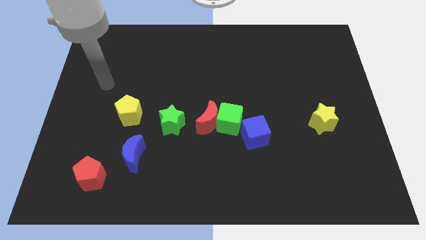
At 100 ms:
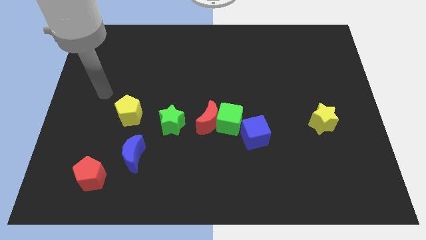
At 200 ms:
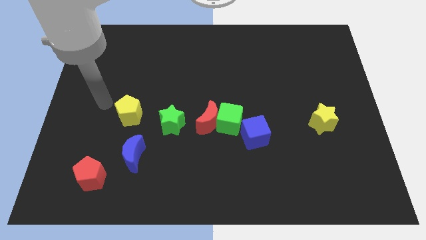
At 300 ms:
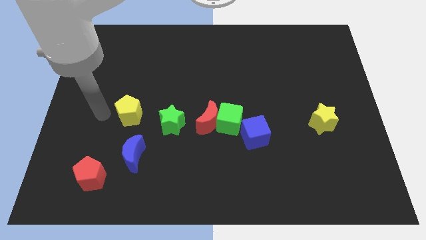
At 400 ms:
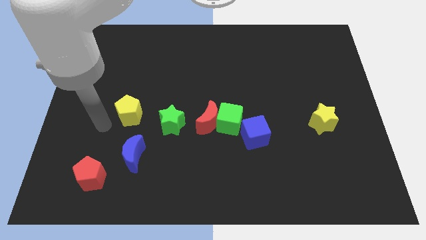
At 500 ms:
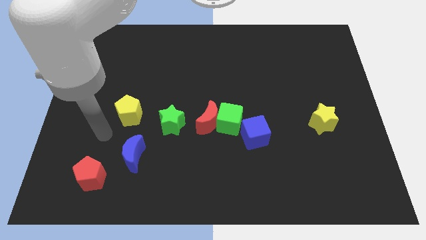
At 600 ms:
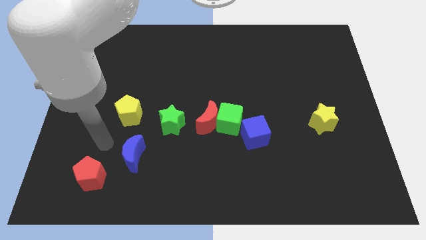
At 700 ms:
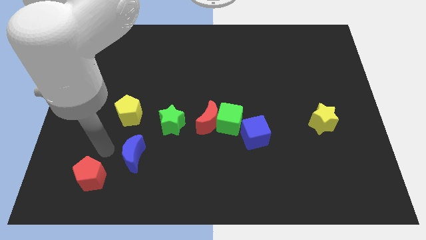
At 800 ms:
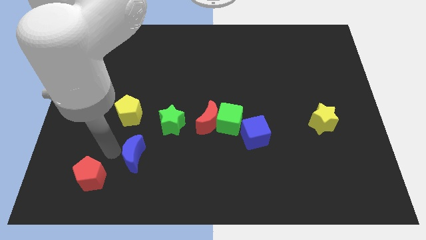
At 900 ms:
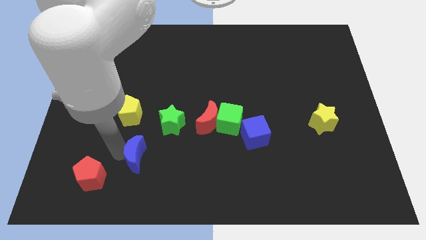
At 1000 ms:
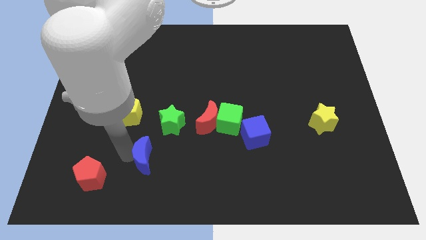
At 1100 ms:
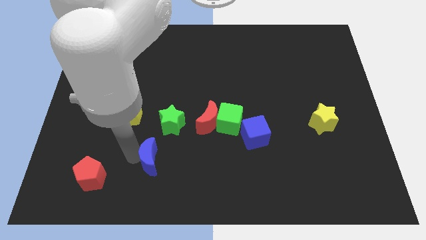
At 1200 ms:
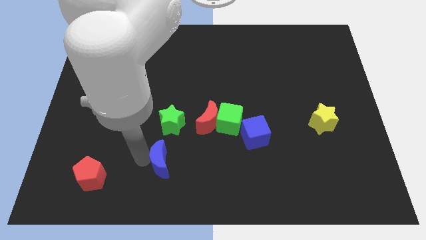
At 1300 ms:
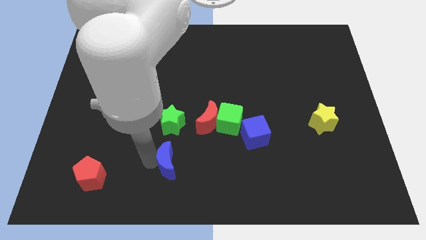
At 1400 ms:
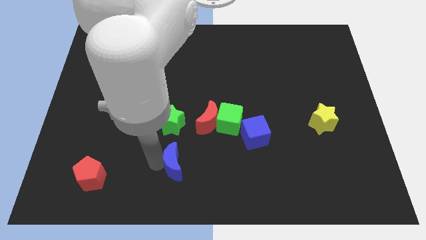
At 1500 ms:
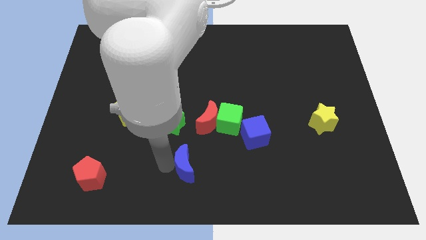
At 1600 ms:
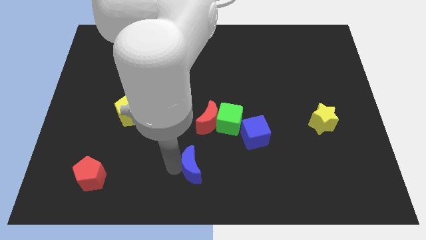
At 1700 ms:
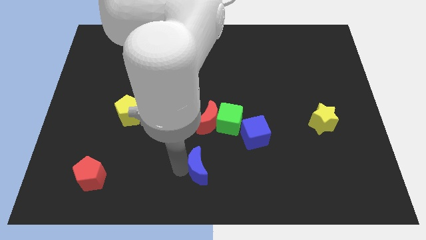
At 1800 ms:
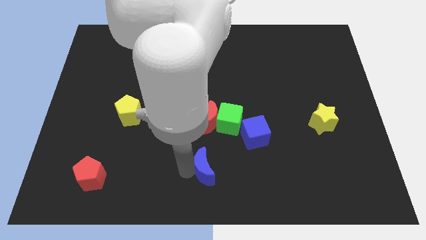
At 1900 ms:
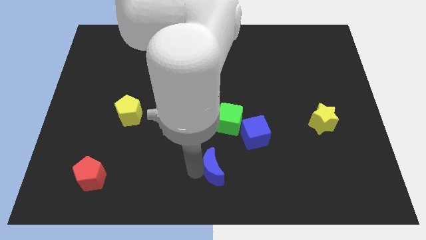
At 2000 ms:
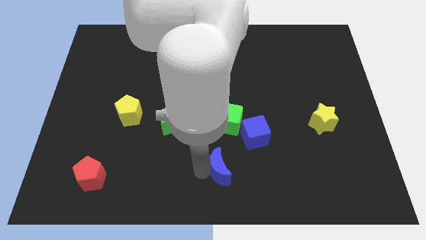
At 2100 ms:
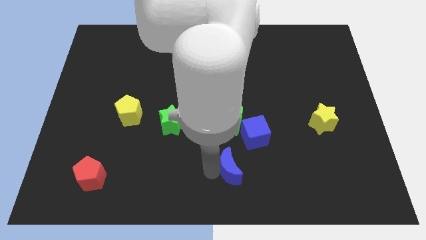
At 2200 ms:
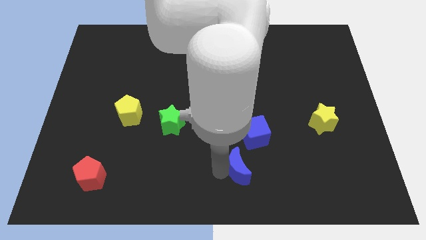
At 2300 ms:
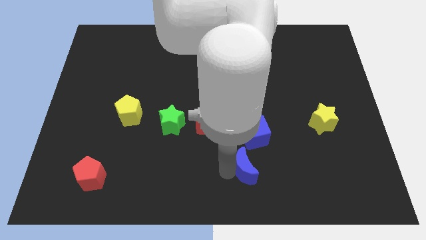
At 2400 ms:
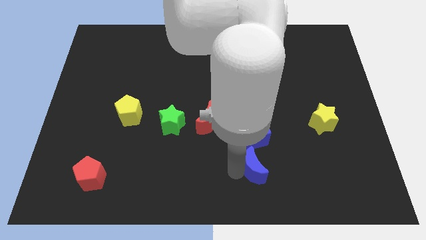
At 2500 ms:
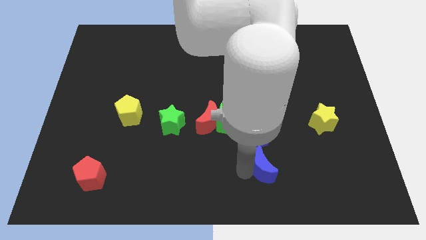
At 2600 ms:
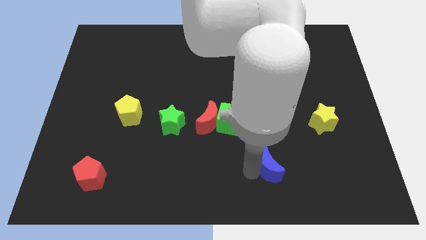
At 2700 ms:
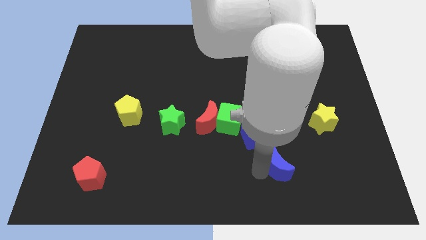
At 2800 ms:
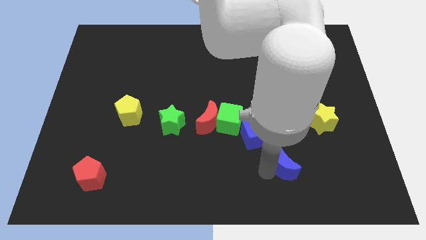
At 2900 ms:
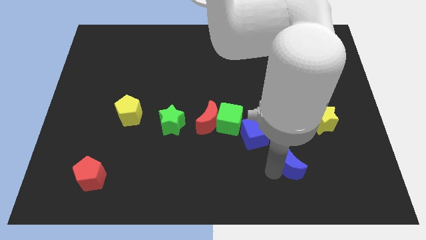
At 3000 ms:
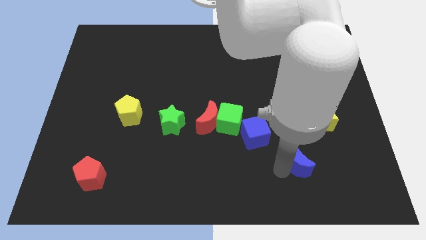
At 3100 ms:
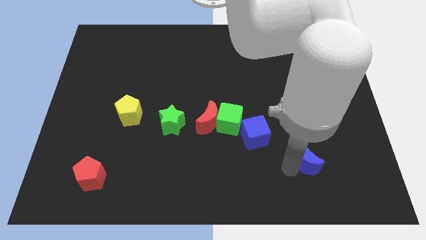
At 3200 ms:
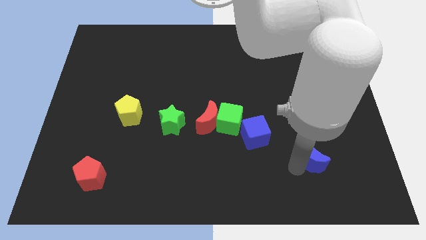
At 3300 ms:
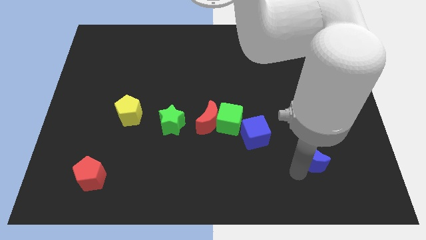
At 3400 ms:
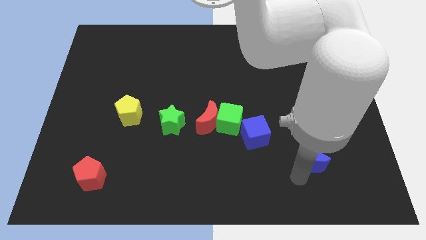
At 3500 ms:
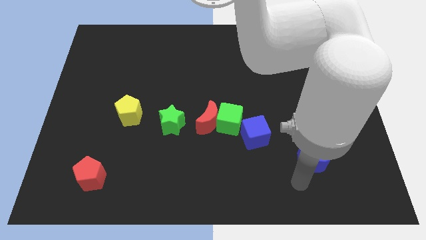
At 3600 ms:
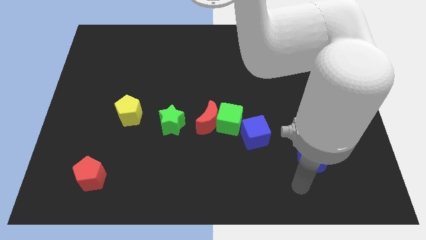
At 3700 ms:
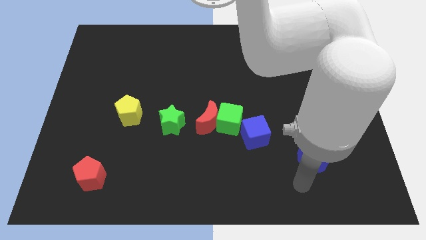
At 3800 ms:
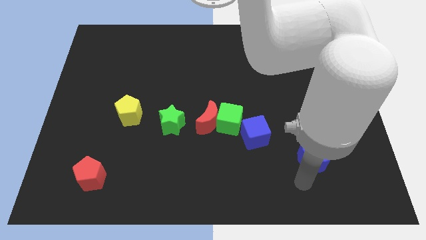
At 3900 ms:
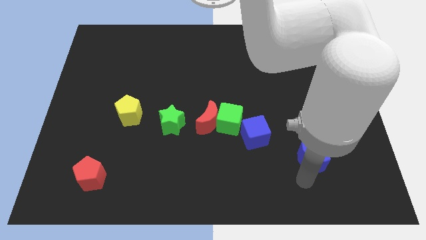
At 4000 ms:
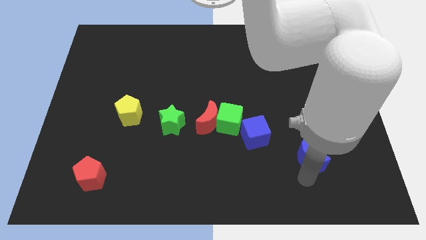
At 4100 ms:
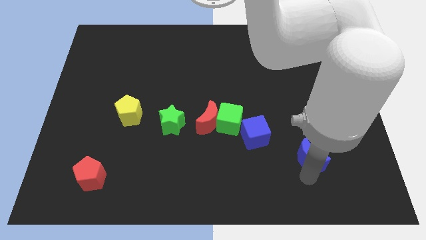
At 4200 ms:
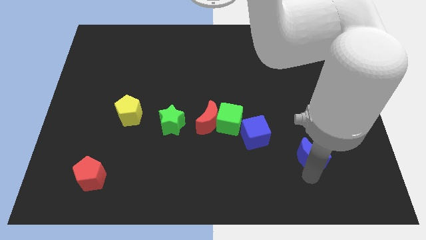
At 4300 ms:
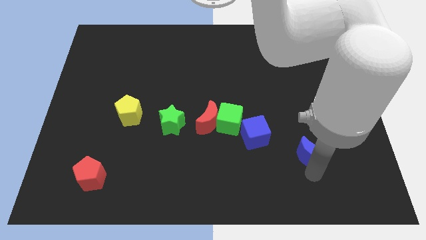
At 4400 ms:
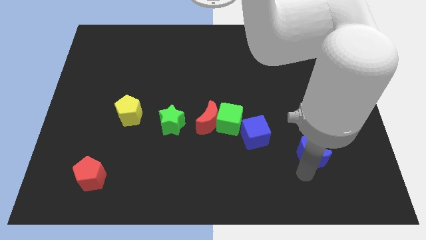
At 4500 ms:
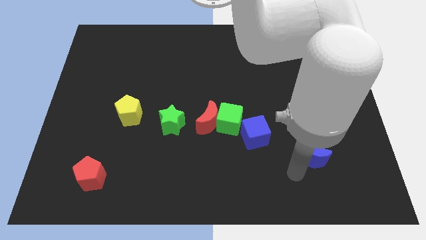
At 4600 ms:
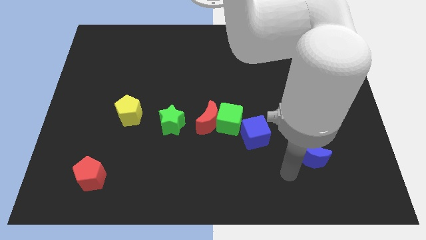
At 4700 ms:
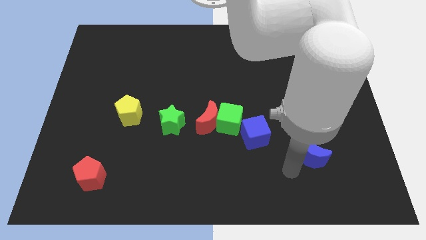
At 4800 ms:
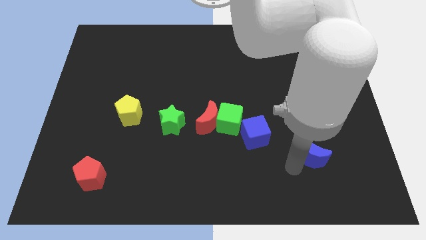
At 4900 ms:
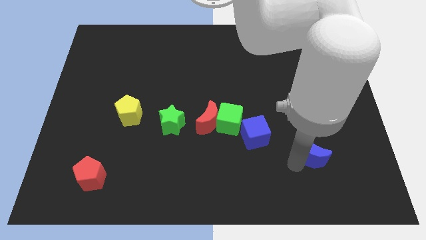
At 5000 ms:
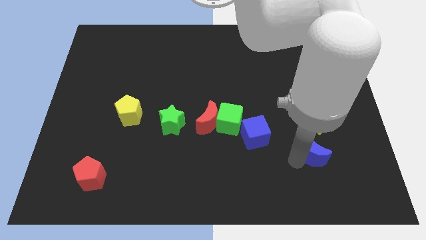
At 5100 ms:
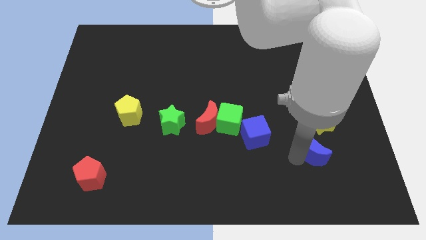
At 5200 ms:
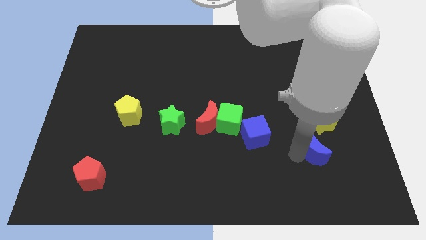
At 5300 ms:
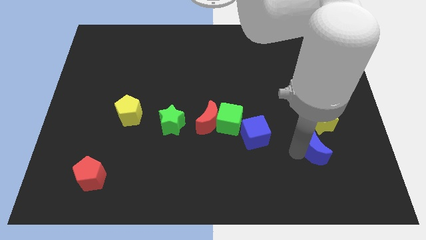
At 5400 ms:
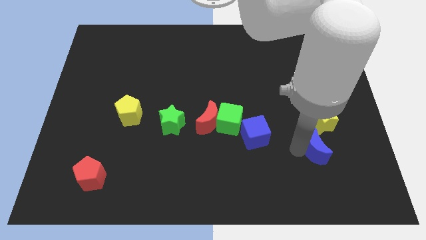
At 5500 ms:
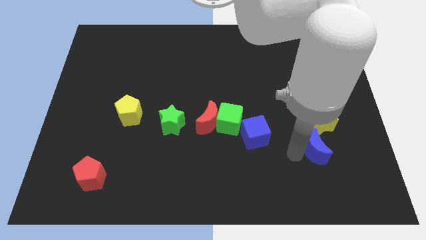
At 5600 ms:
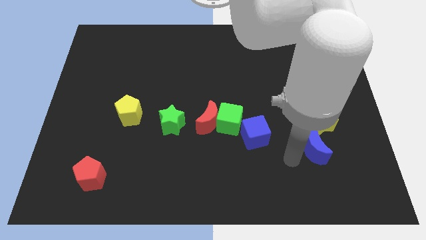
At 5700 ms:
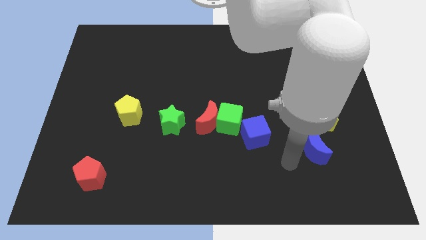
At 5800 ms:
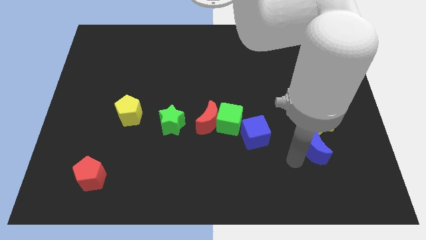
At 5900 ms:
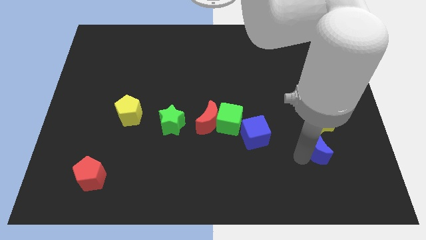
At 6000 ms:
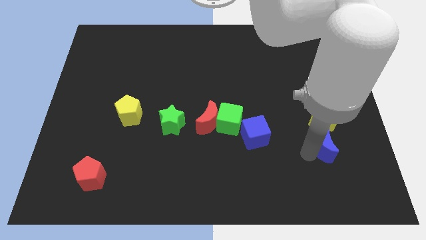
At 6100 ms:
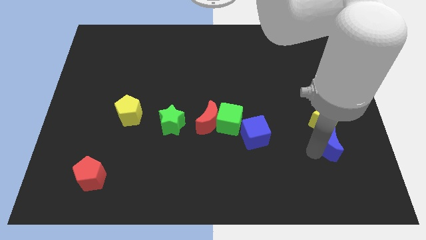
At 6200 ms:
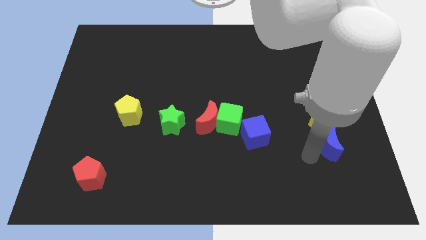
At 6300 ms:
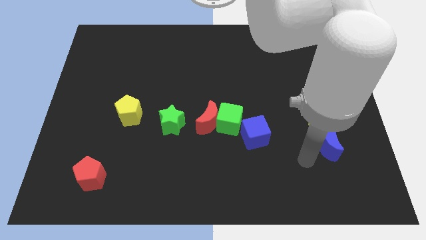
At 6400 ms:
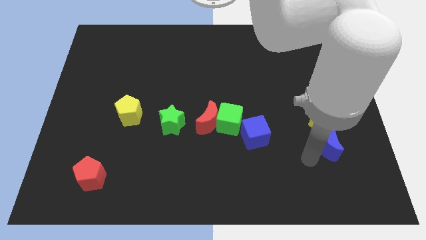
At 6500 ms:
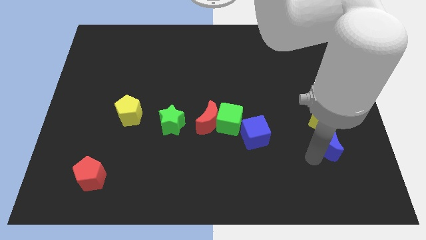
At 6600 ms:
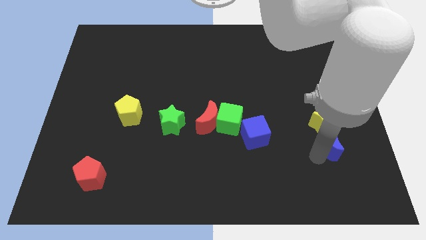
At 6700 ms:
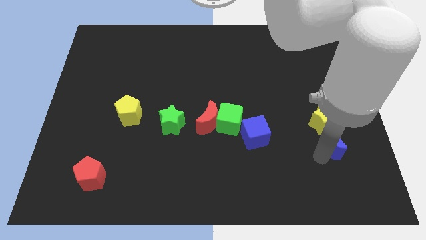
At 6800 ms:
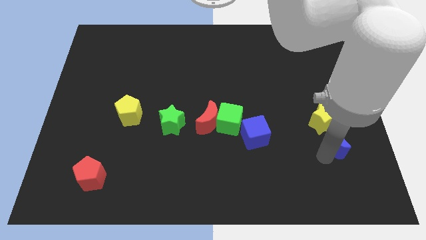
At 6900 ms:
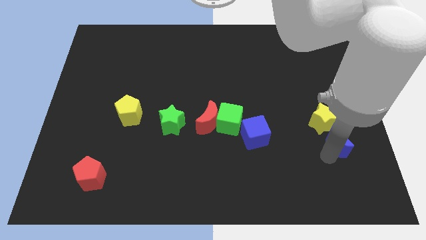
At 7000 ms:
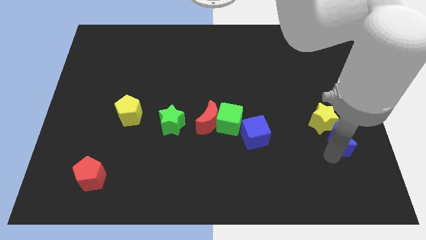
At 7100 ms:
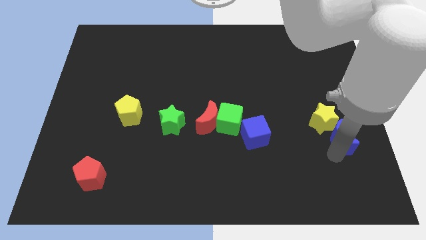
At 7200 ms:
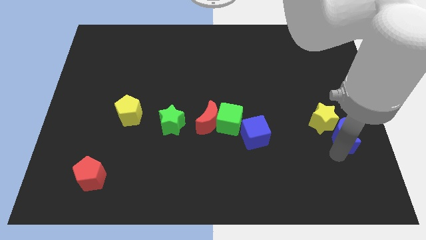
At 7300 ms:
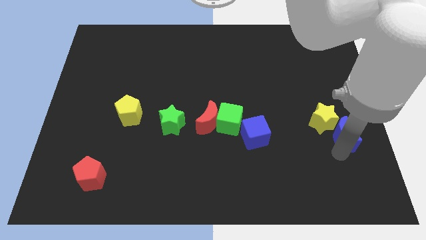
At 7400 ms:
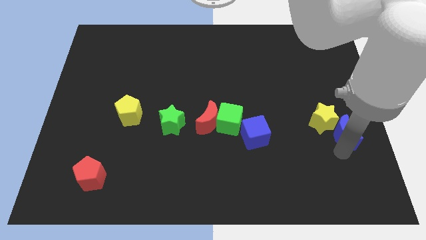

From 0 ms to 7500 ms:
put the blue moon to the right side of the board
